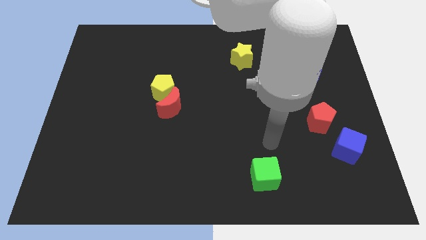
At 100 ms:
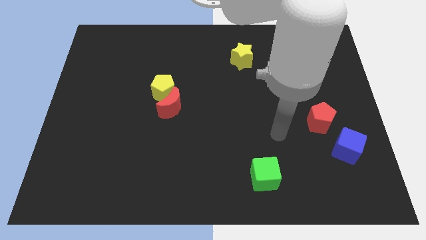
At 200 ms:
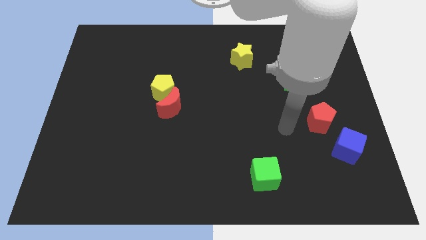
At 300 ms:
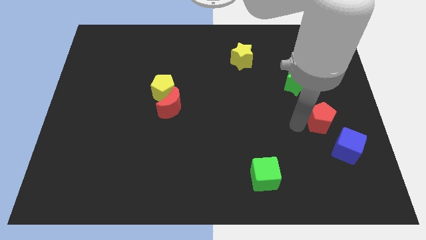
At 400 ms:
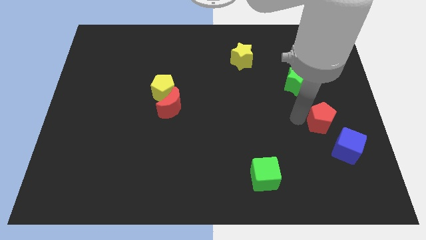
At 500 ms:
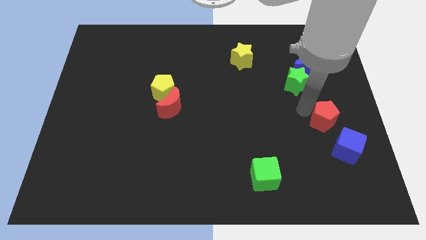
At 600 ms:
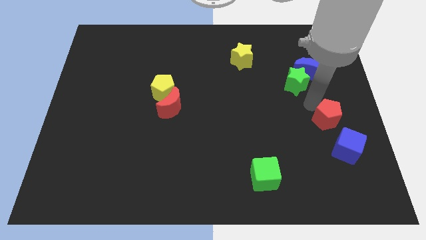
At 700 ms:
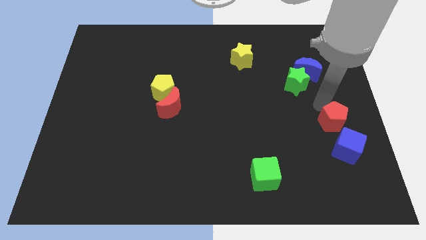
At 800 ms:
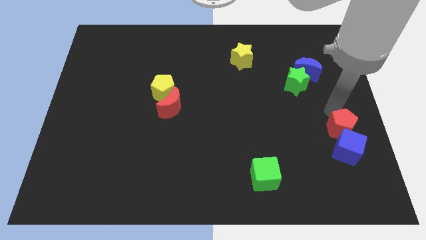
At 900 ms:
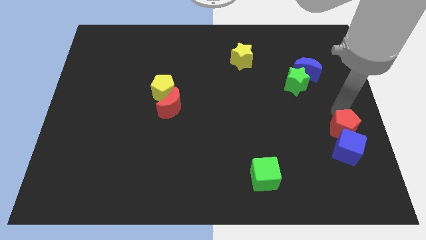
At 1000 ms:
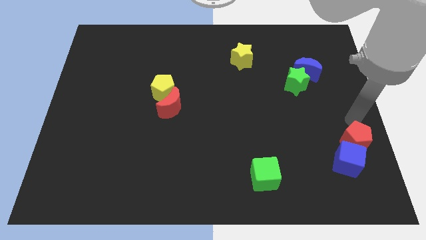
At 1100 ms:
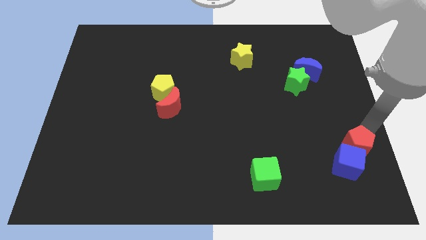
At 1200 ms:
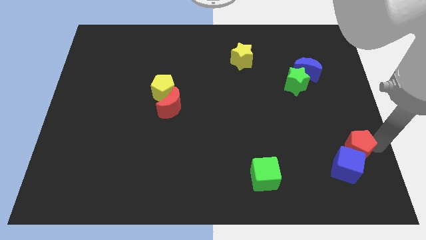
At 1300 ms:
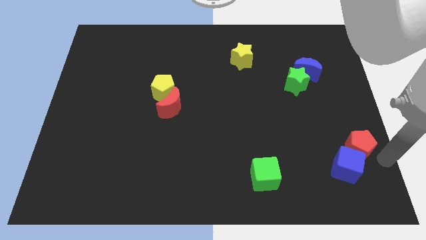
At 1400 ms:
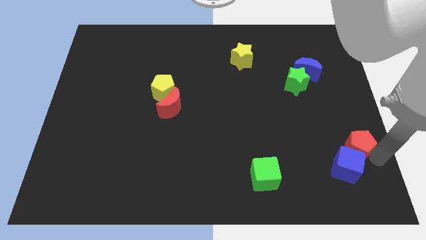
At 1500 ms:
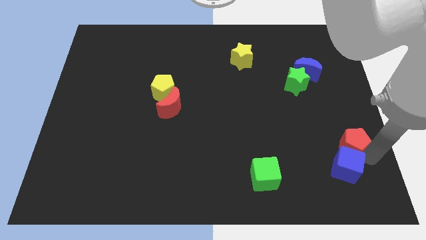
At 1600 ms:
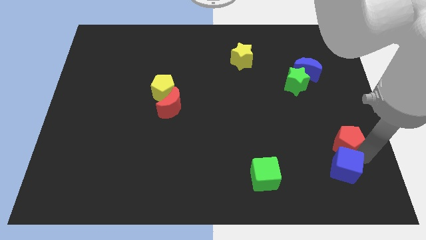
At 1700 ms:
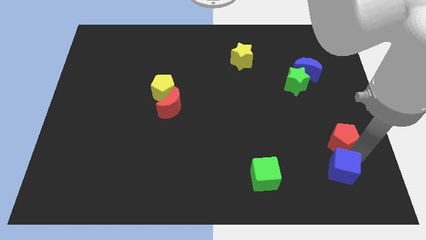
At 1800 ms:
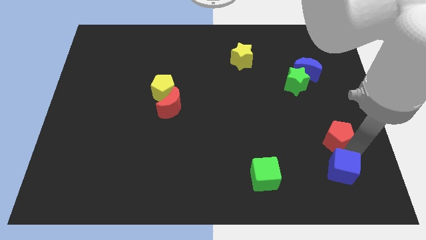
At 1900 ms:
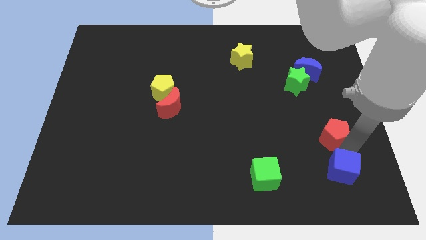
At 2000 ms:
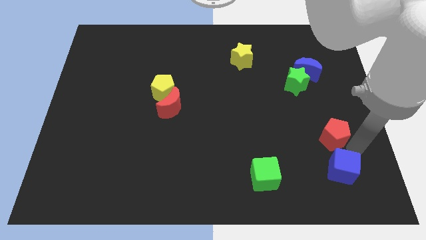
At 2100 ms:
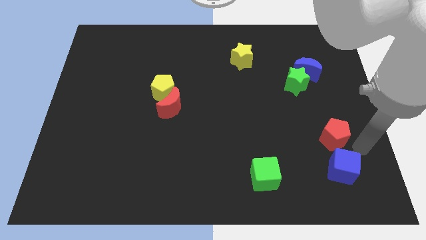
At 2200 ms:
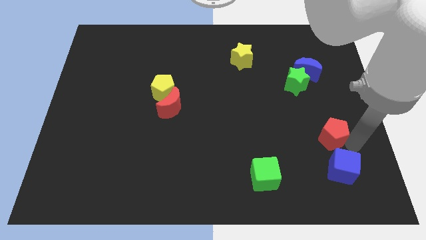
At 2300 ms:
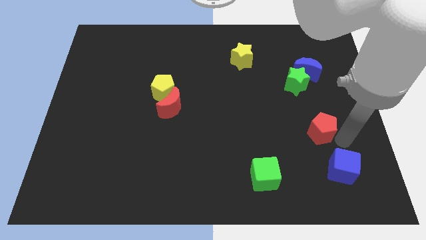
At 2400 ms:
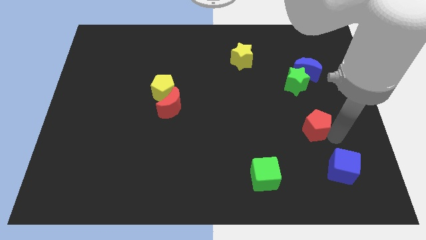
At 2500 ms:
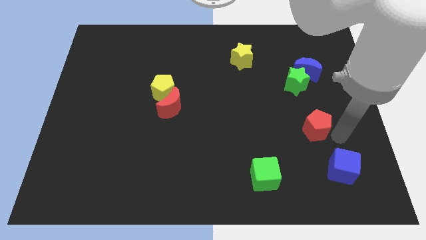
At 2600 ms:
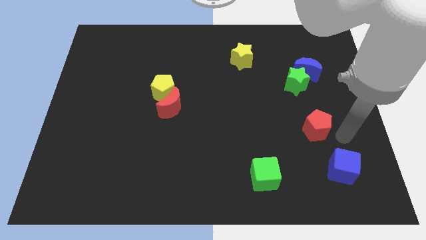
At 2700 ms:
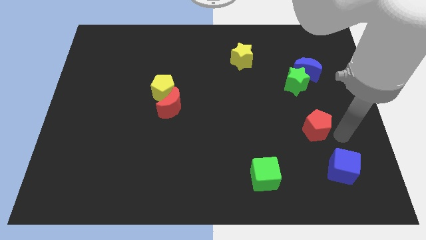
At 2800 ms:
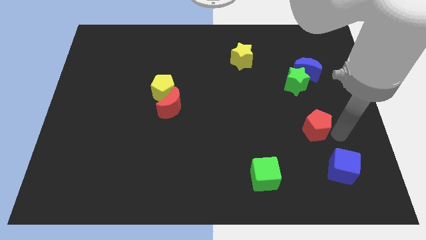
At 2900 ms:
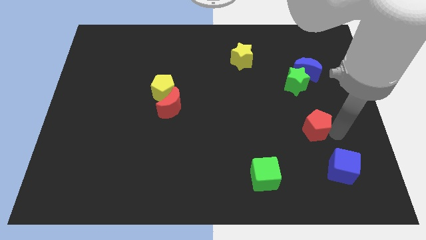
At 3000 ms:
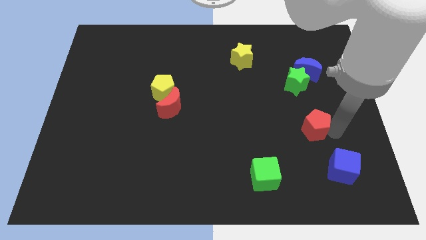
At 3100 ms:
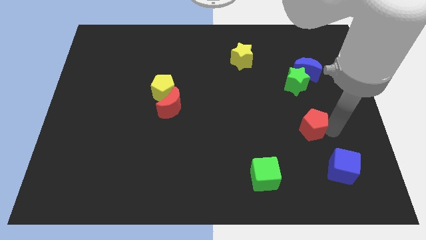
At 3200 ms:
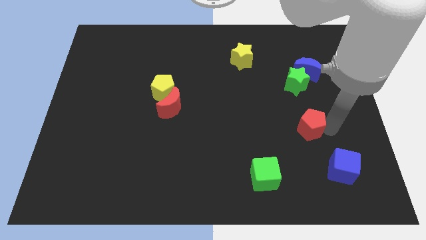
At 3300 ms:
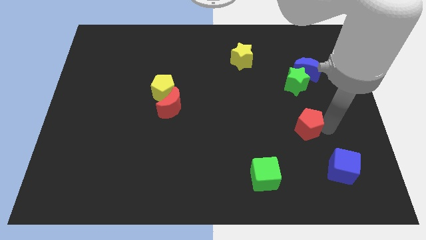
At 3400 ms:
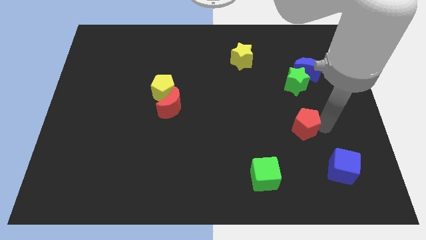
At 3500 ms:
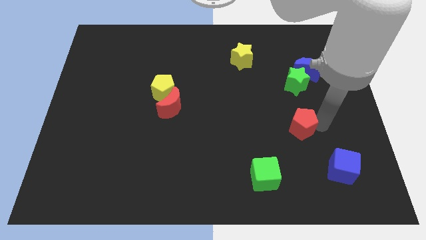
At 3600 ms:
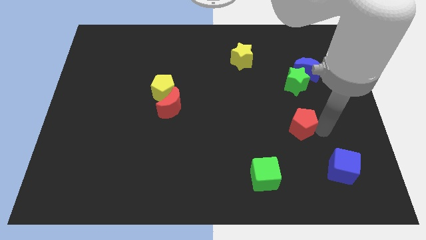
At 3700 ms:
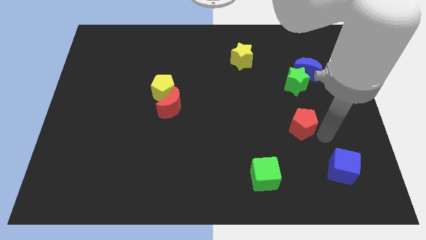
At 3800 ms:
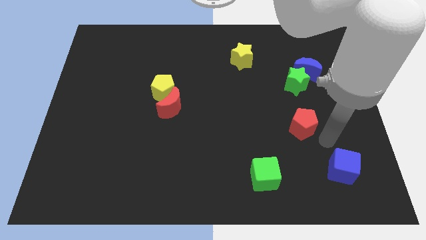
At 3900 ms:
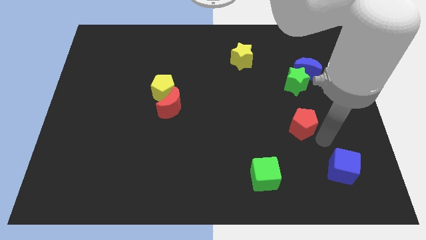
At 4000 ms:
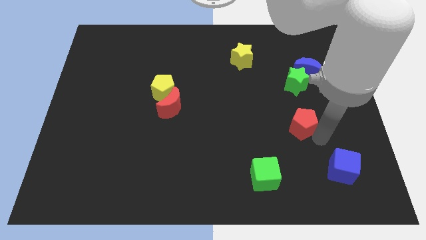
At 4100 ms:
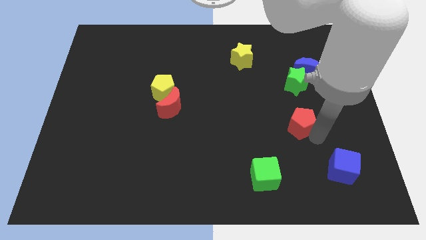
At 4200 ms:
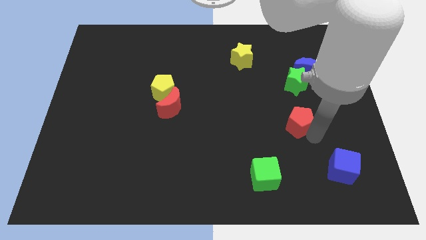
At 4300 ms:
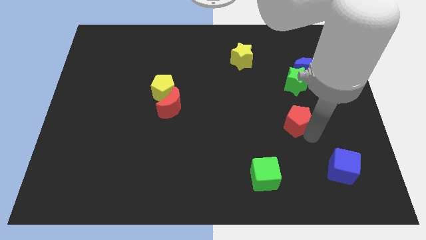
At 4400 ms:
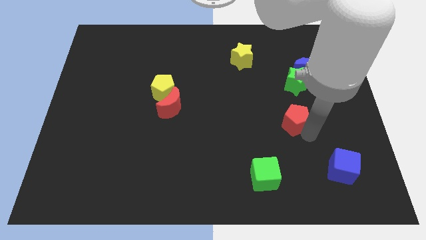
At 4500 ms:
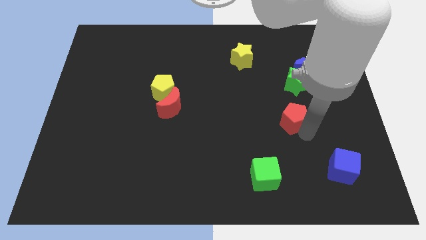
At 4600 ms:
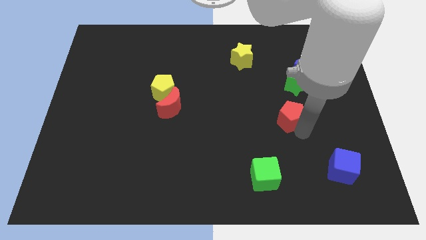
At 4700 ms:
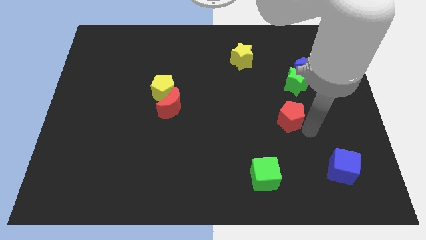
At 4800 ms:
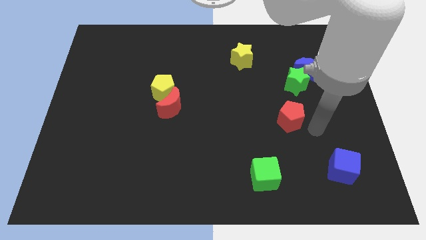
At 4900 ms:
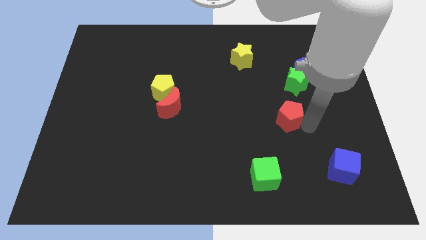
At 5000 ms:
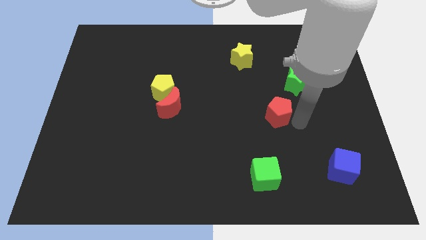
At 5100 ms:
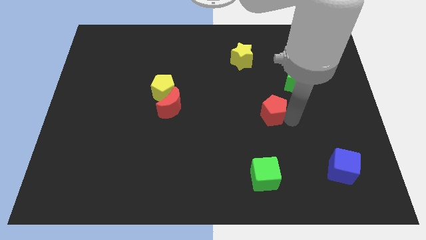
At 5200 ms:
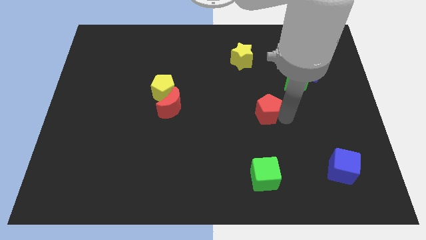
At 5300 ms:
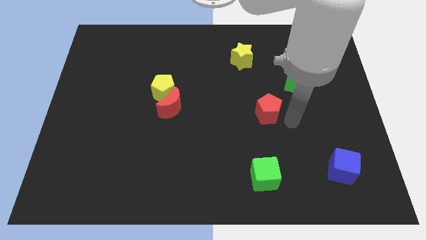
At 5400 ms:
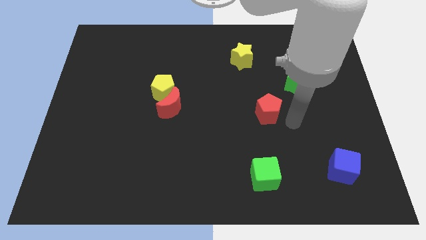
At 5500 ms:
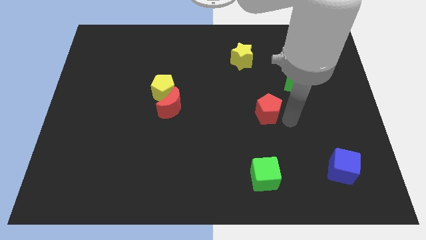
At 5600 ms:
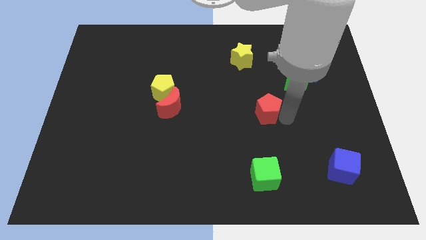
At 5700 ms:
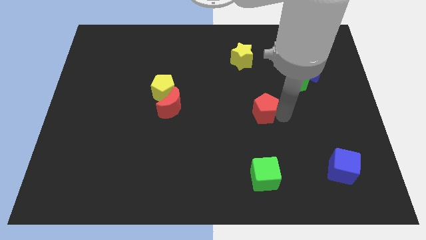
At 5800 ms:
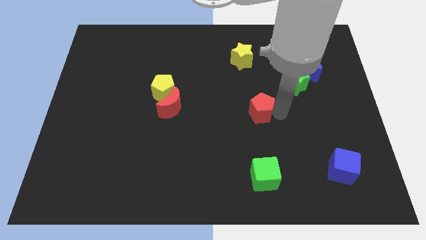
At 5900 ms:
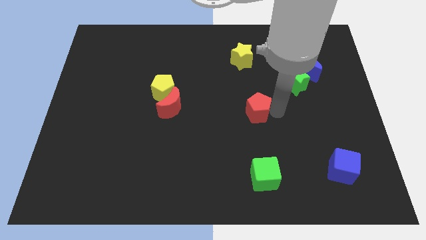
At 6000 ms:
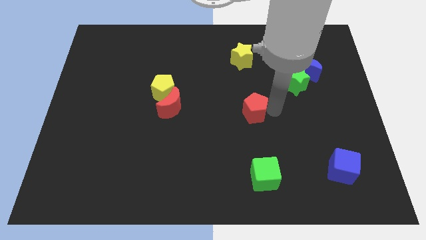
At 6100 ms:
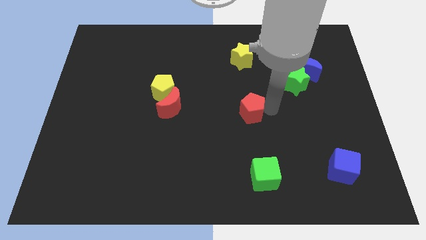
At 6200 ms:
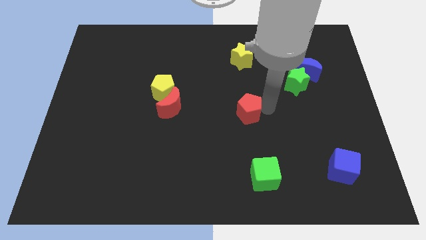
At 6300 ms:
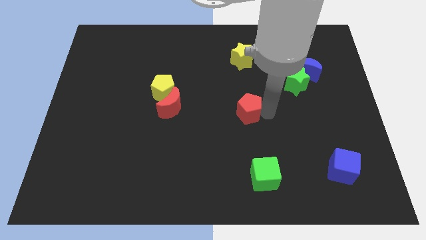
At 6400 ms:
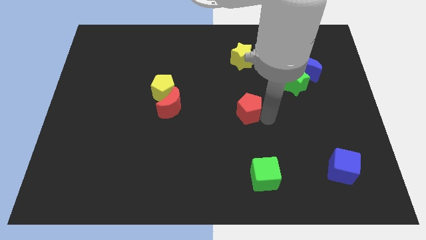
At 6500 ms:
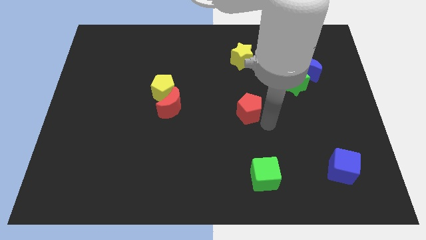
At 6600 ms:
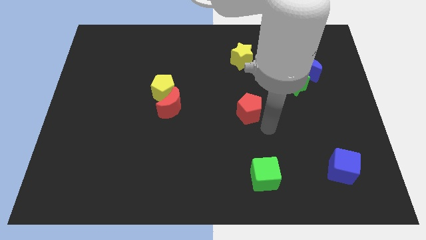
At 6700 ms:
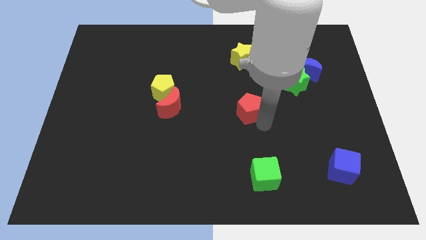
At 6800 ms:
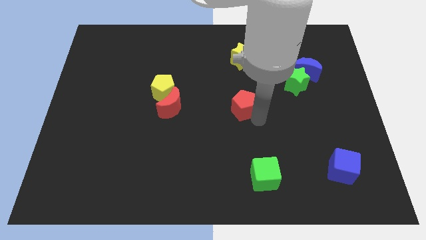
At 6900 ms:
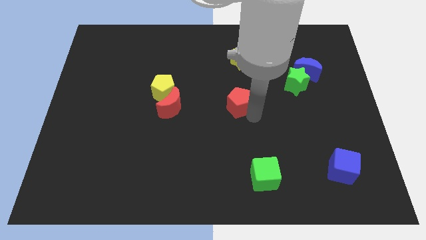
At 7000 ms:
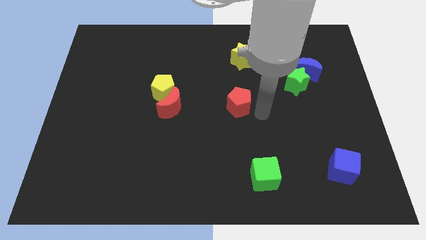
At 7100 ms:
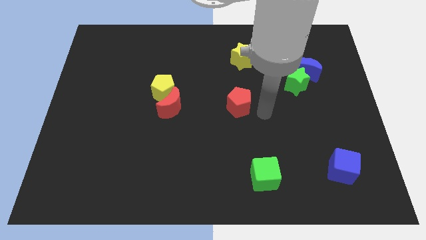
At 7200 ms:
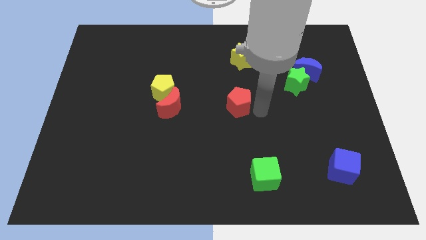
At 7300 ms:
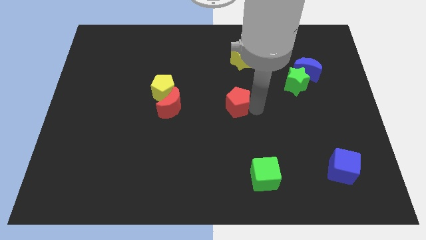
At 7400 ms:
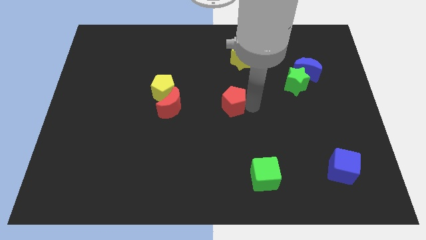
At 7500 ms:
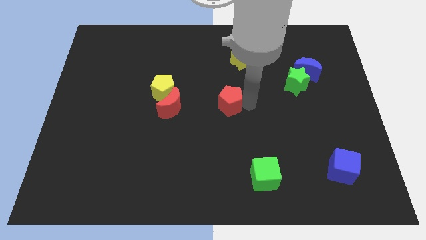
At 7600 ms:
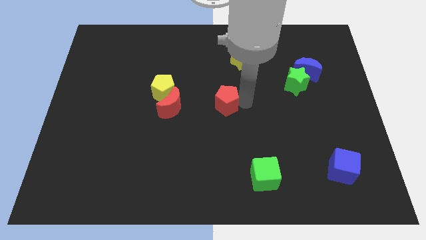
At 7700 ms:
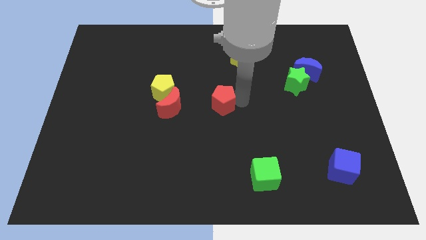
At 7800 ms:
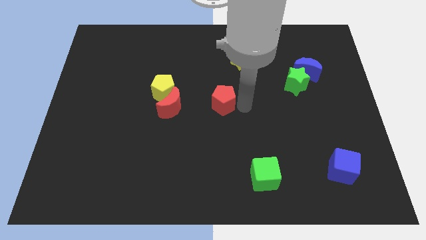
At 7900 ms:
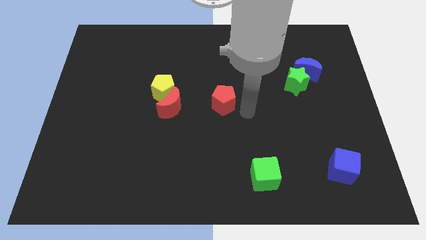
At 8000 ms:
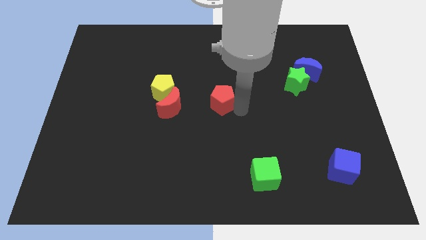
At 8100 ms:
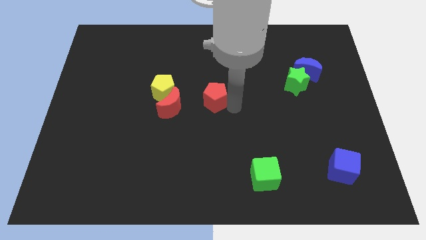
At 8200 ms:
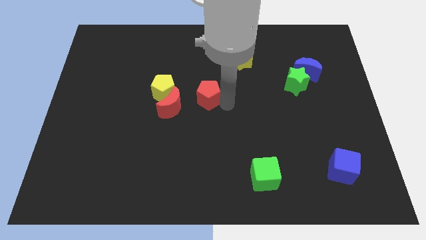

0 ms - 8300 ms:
slide the red pentagon diagonally up and to the right of the red moon
